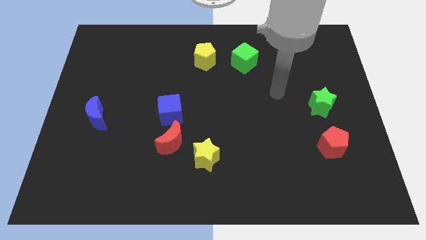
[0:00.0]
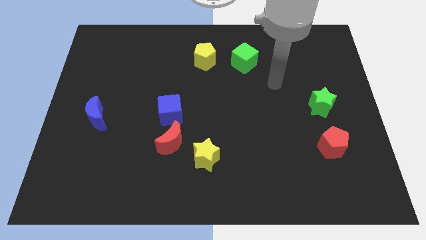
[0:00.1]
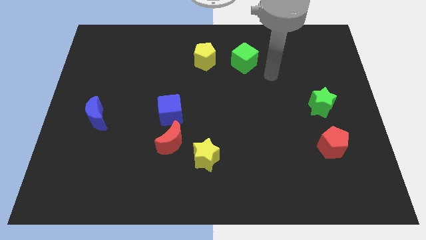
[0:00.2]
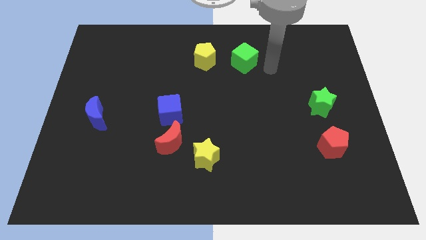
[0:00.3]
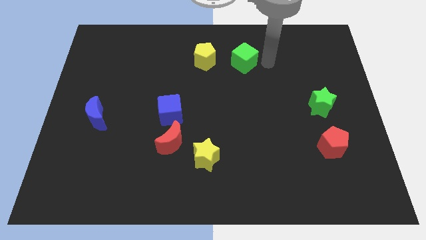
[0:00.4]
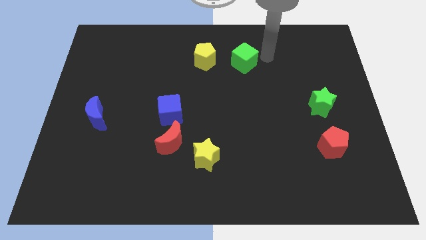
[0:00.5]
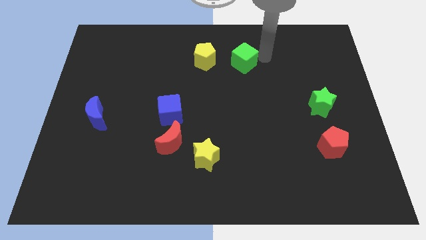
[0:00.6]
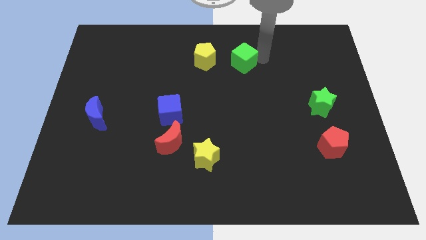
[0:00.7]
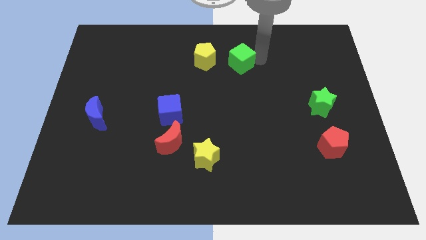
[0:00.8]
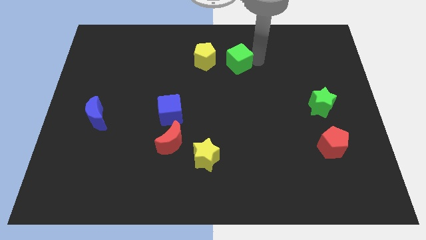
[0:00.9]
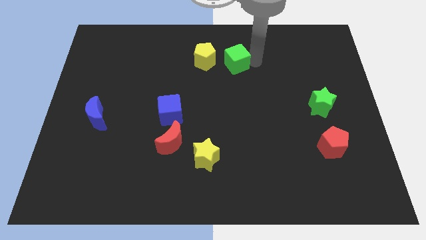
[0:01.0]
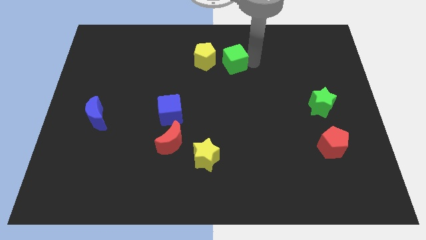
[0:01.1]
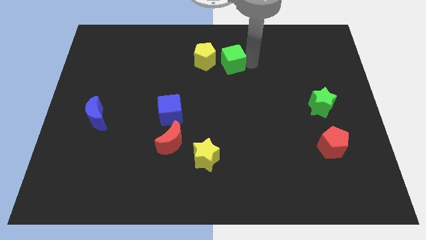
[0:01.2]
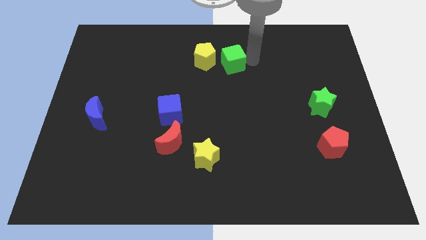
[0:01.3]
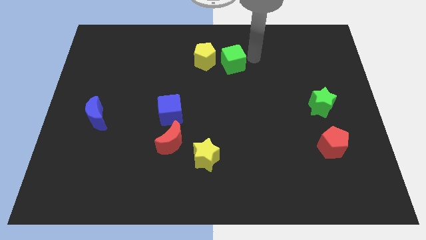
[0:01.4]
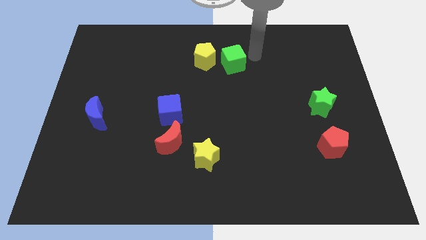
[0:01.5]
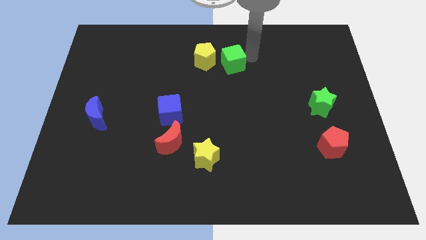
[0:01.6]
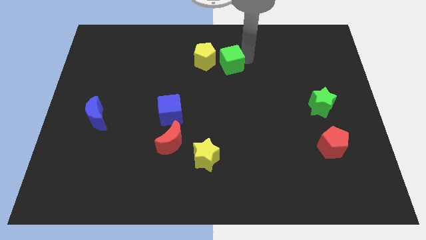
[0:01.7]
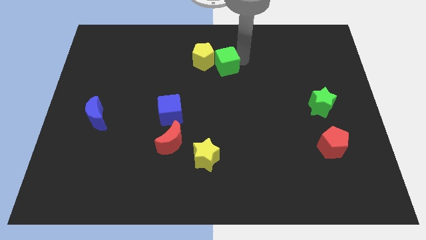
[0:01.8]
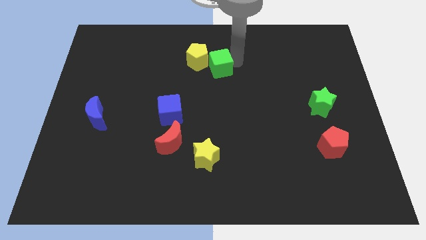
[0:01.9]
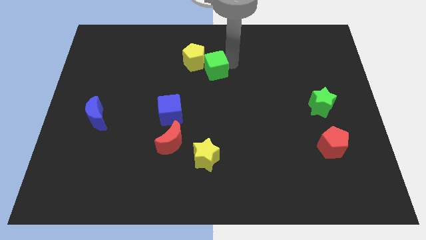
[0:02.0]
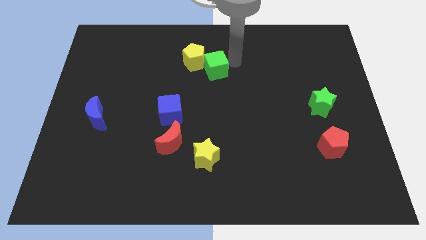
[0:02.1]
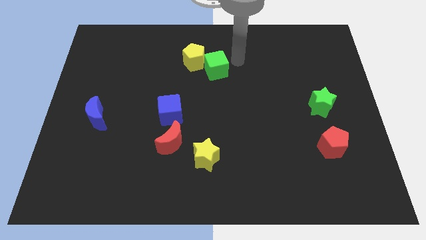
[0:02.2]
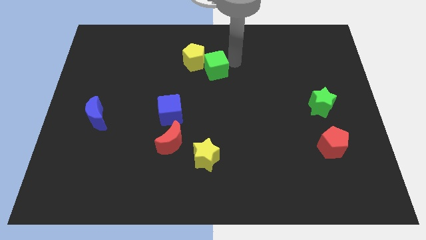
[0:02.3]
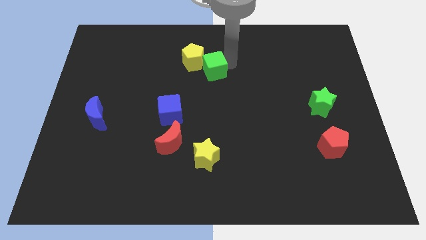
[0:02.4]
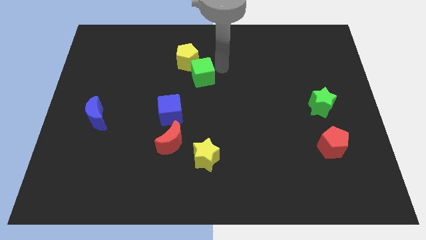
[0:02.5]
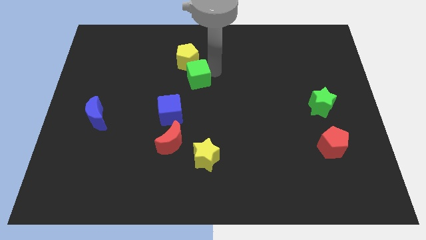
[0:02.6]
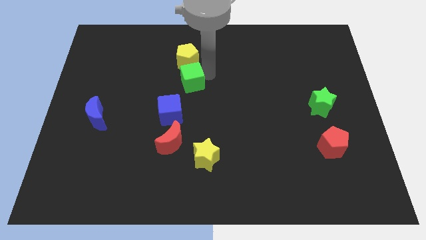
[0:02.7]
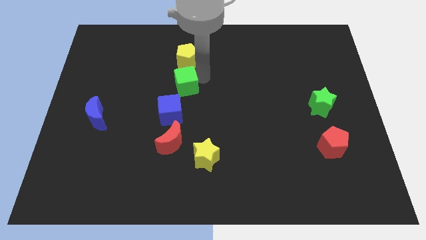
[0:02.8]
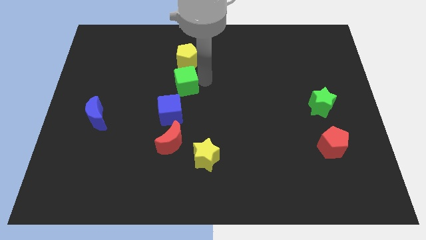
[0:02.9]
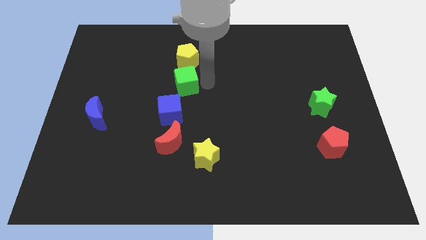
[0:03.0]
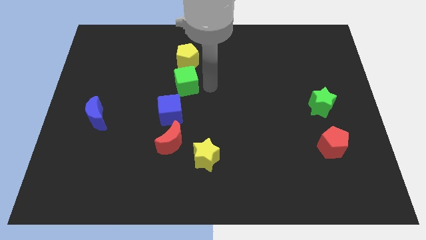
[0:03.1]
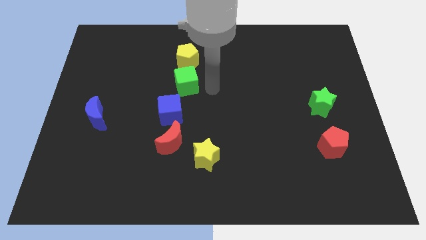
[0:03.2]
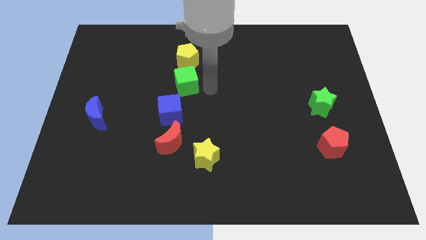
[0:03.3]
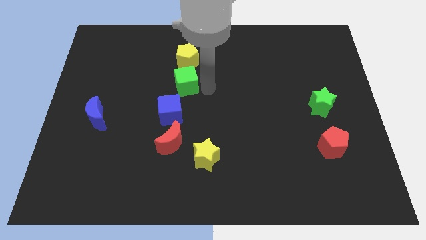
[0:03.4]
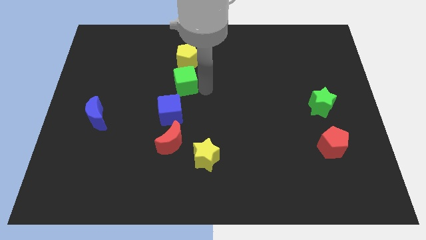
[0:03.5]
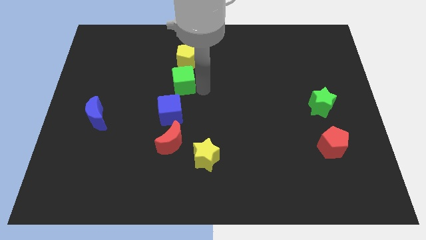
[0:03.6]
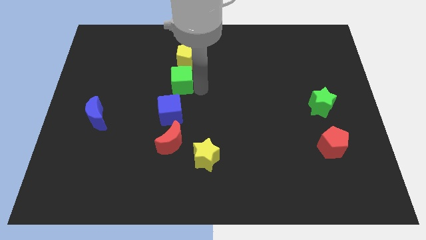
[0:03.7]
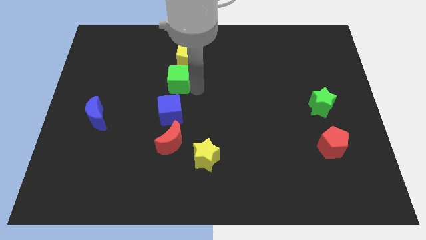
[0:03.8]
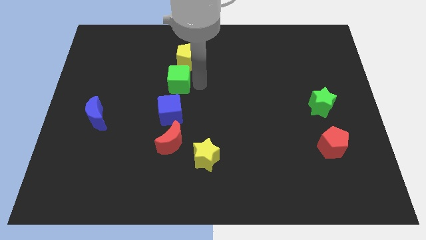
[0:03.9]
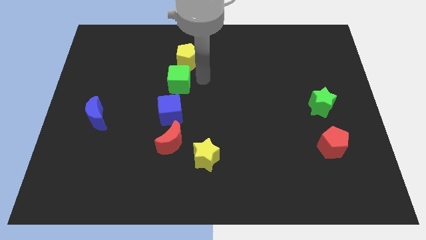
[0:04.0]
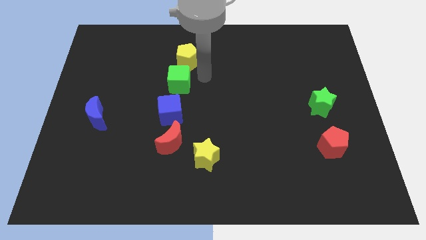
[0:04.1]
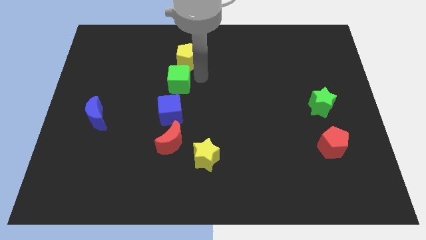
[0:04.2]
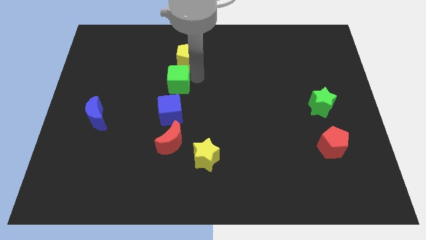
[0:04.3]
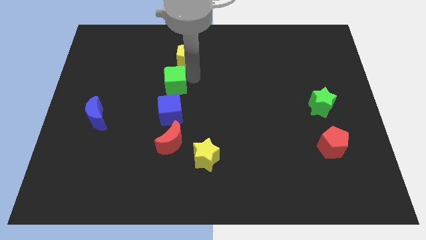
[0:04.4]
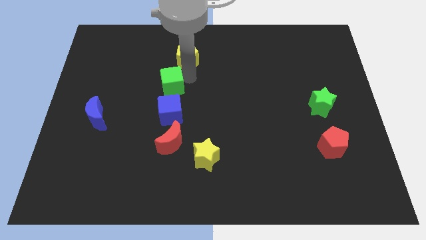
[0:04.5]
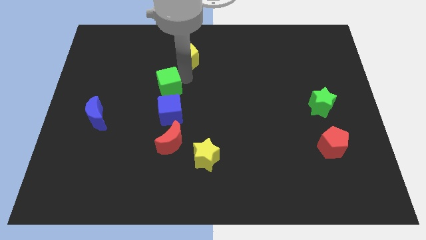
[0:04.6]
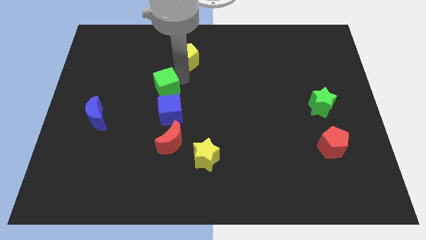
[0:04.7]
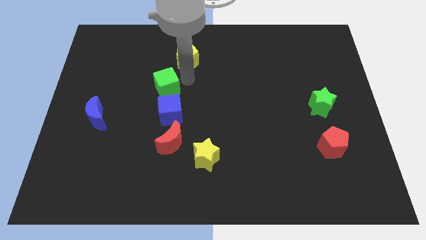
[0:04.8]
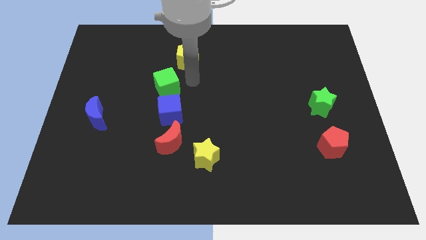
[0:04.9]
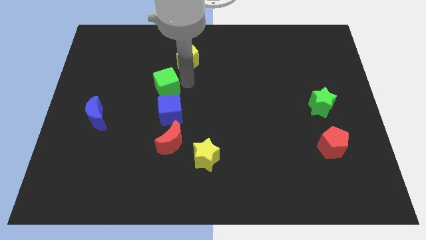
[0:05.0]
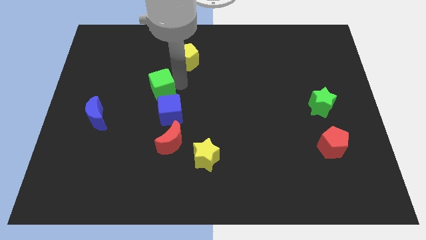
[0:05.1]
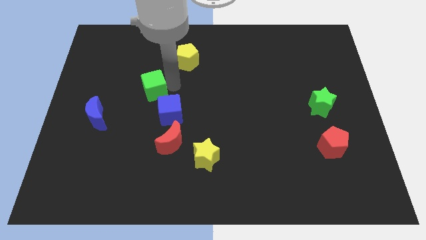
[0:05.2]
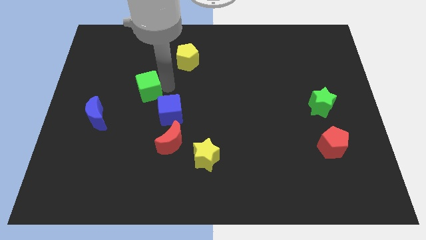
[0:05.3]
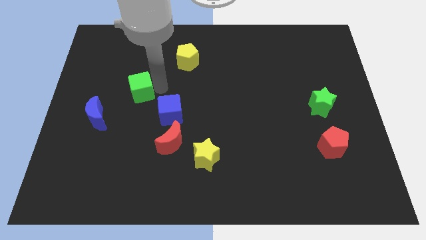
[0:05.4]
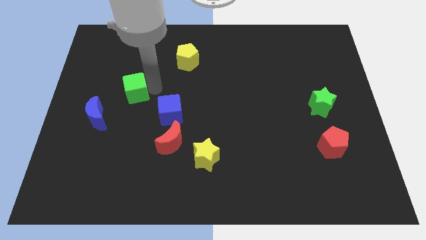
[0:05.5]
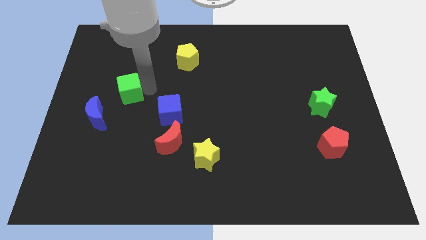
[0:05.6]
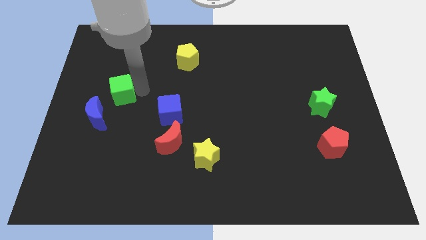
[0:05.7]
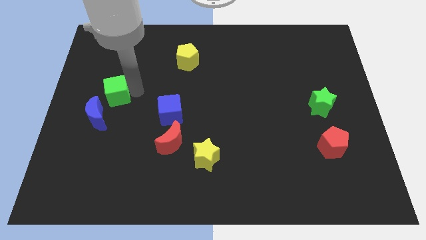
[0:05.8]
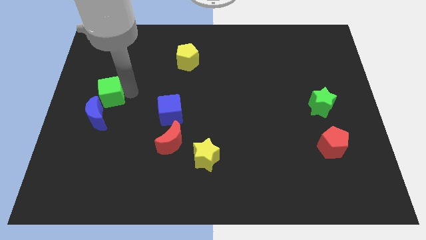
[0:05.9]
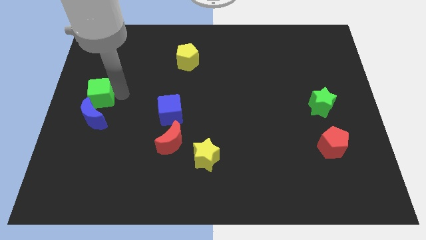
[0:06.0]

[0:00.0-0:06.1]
move the green cube to the left side
